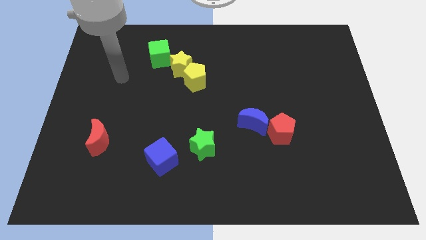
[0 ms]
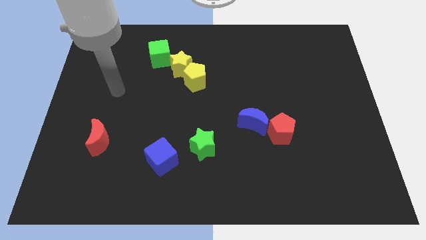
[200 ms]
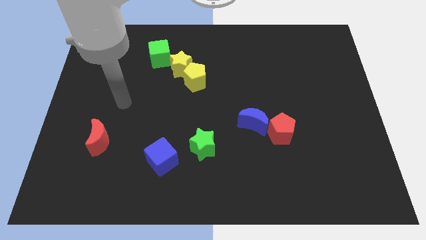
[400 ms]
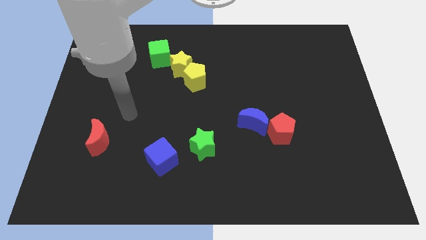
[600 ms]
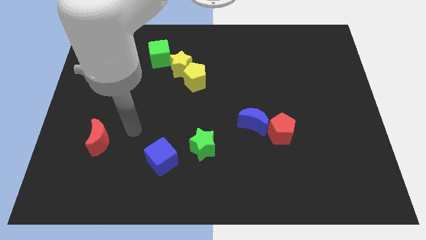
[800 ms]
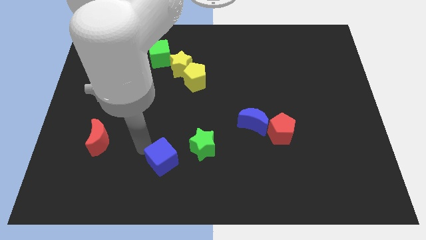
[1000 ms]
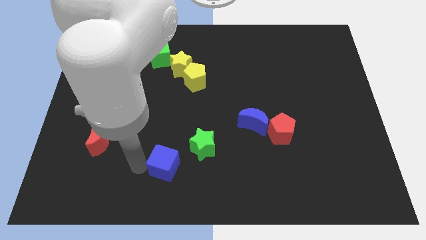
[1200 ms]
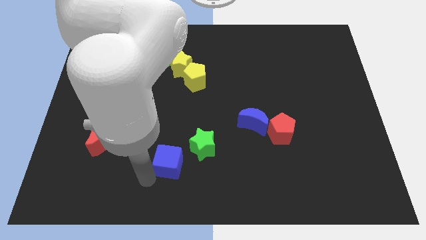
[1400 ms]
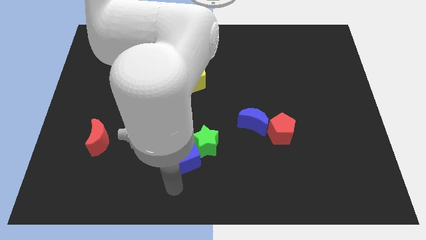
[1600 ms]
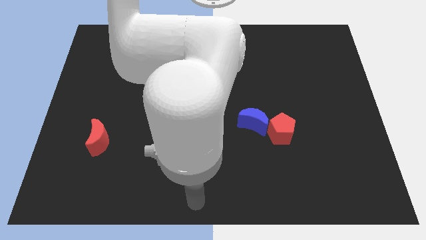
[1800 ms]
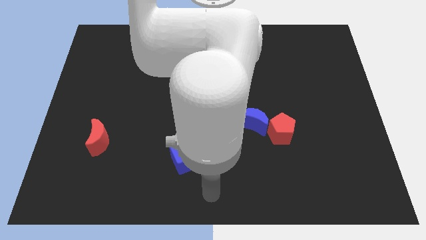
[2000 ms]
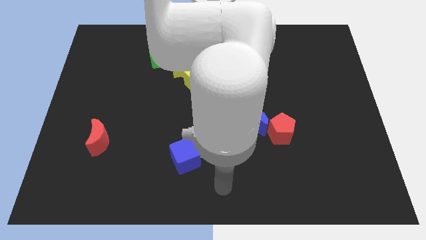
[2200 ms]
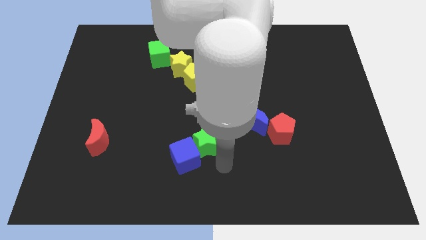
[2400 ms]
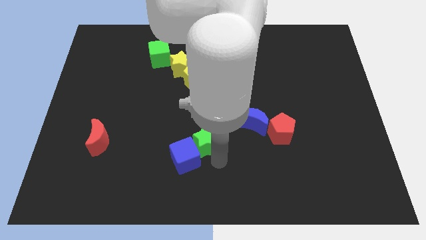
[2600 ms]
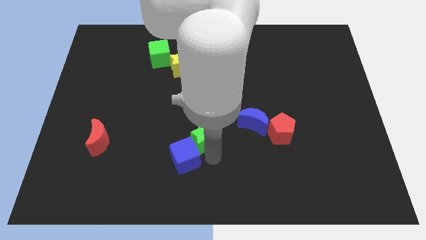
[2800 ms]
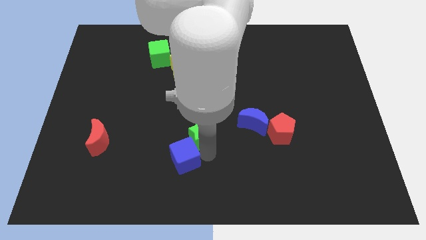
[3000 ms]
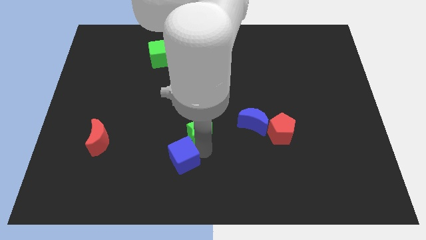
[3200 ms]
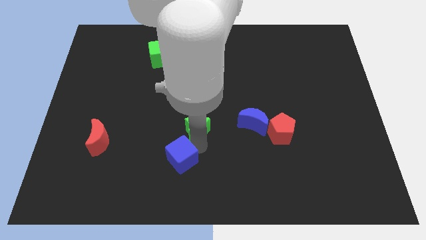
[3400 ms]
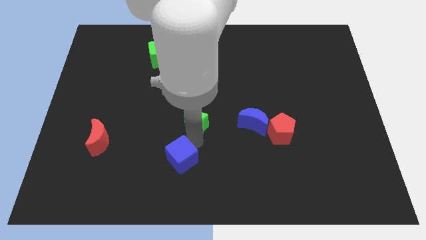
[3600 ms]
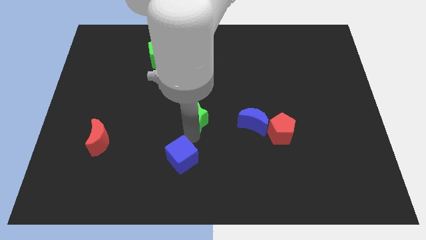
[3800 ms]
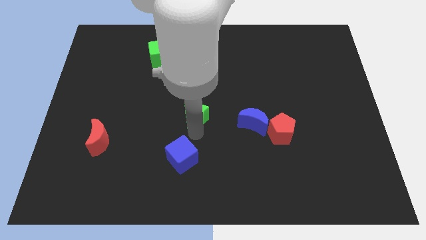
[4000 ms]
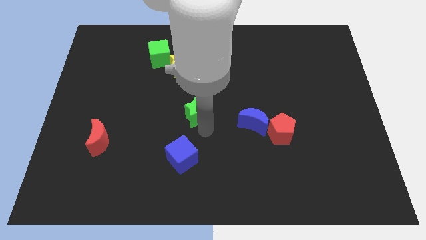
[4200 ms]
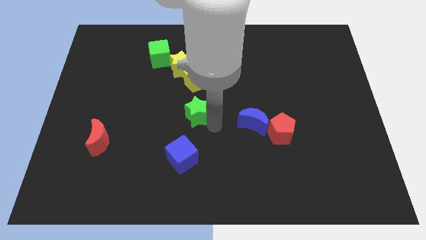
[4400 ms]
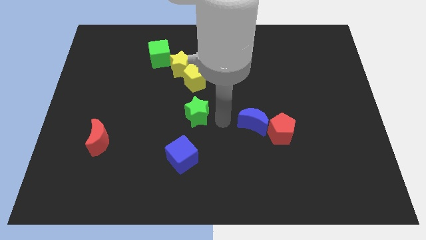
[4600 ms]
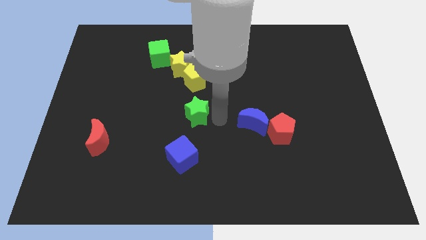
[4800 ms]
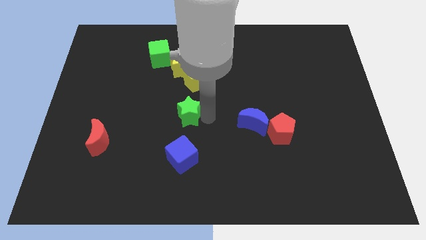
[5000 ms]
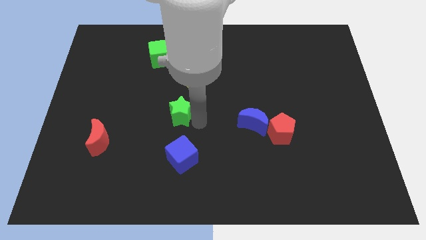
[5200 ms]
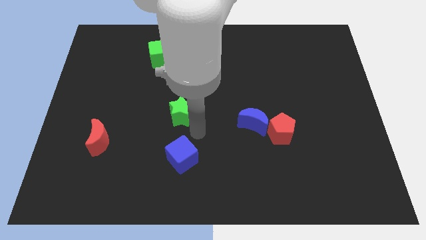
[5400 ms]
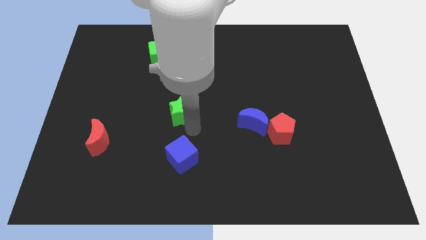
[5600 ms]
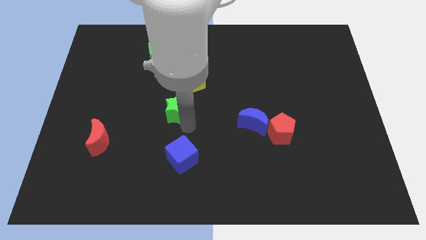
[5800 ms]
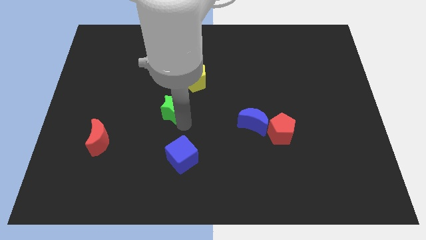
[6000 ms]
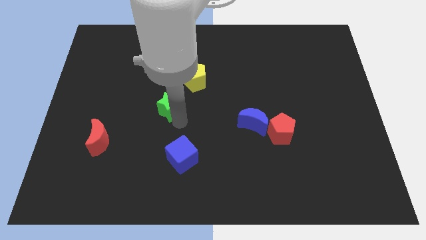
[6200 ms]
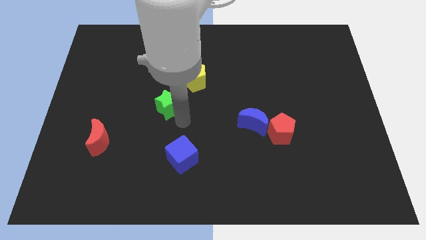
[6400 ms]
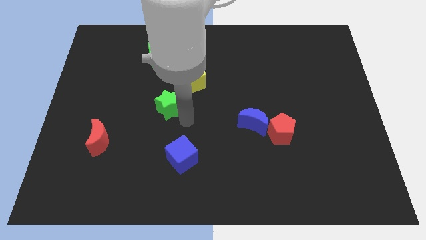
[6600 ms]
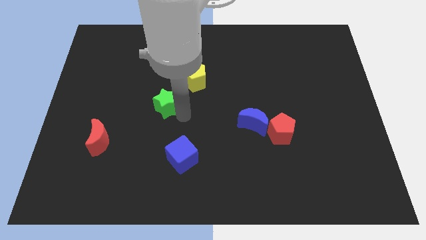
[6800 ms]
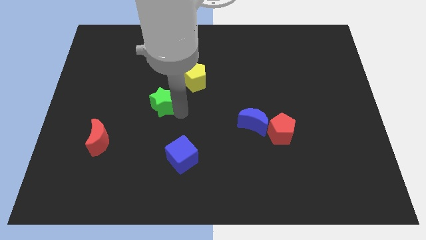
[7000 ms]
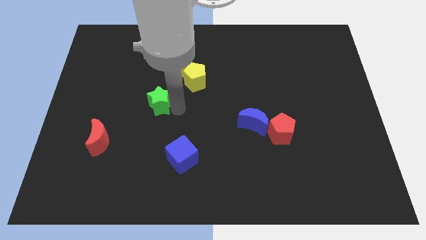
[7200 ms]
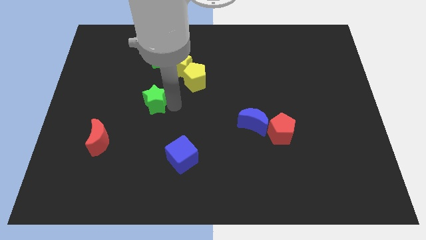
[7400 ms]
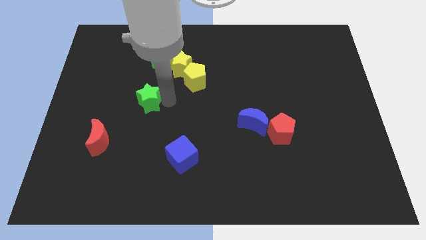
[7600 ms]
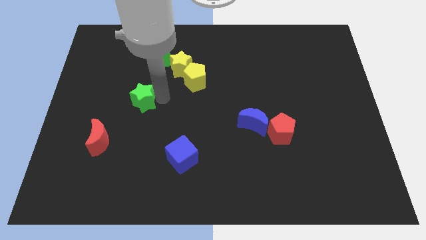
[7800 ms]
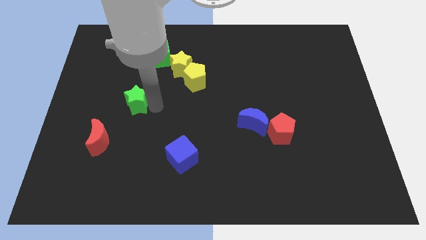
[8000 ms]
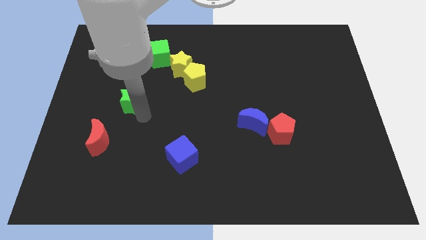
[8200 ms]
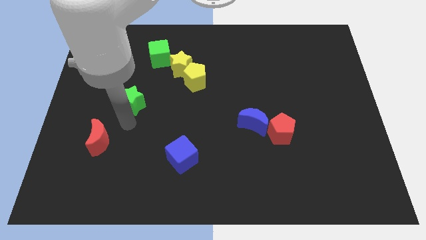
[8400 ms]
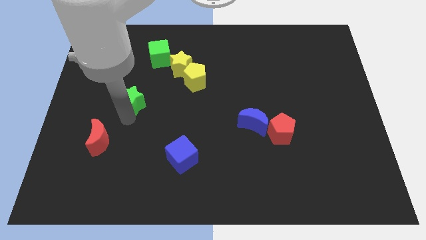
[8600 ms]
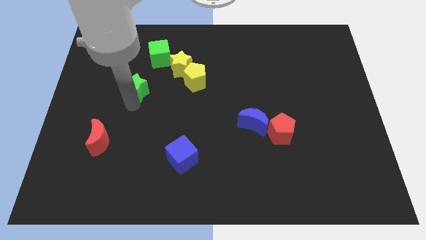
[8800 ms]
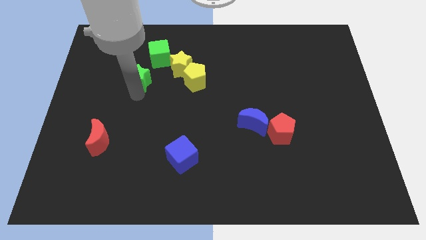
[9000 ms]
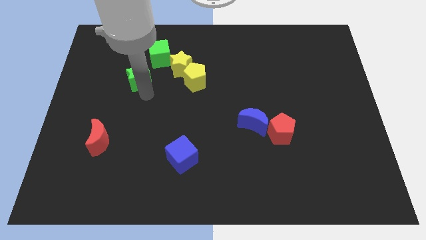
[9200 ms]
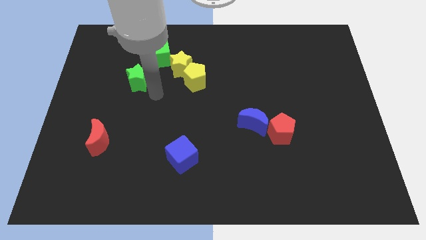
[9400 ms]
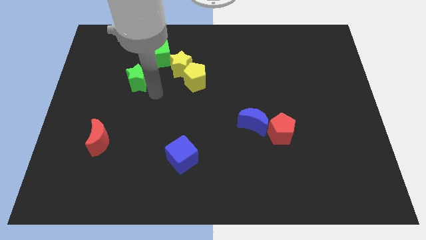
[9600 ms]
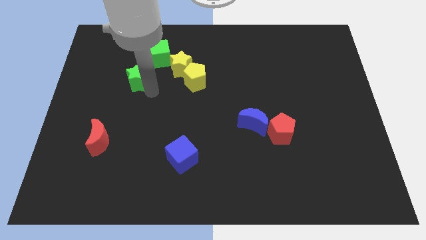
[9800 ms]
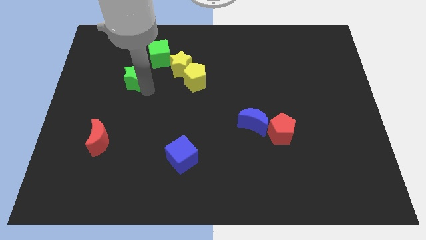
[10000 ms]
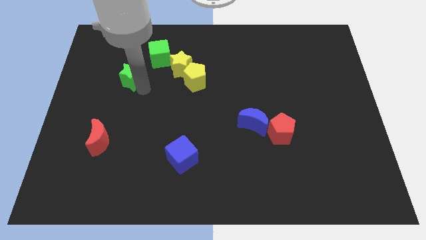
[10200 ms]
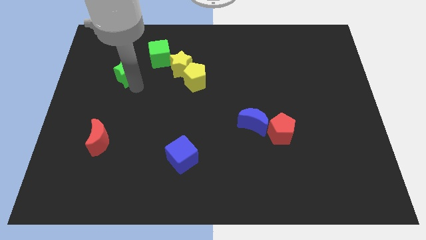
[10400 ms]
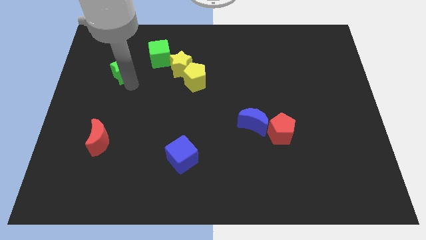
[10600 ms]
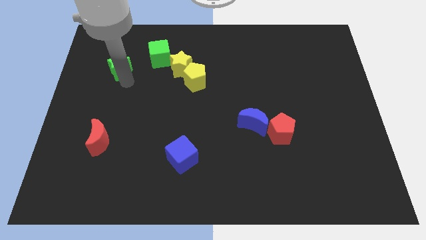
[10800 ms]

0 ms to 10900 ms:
slide the green star left of the green cube
